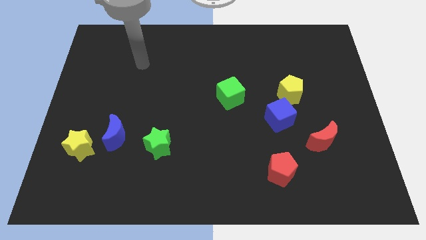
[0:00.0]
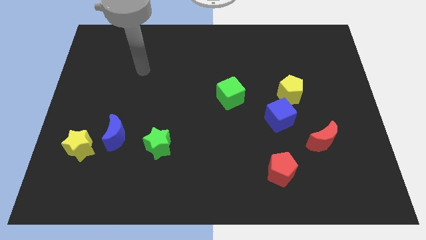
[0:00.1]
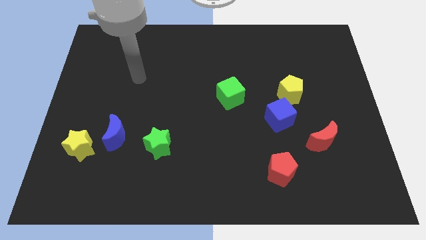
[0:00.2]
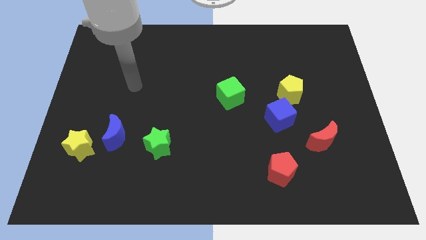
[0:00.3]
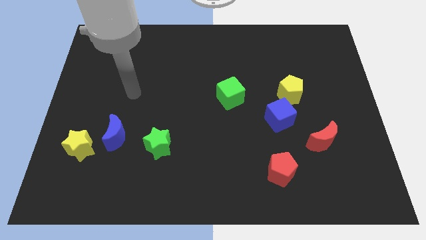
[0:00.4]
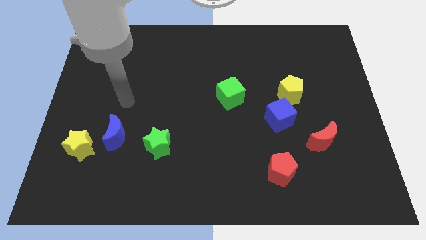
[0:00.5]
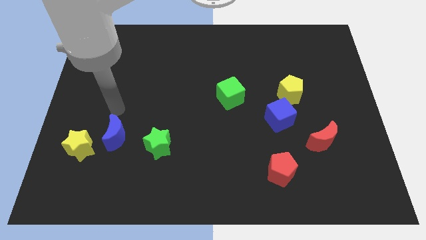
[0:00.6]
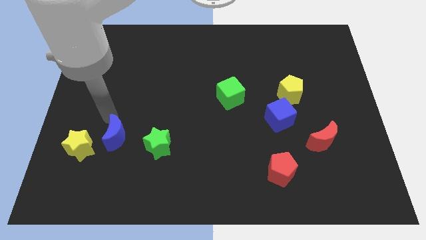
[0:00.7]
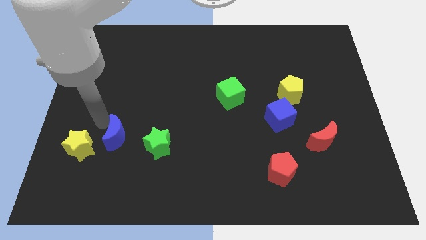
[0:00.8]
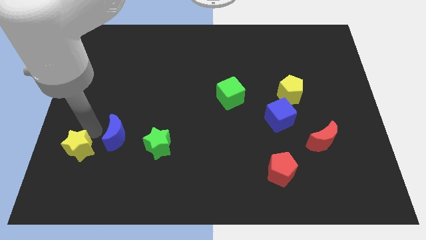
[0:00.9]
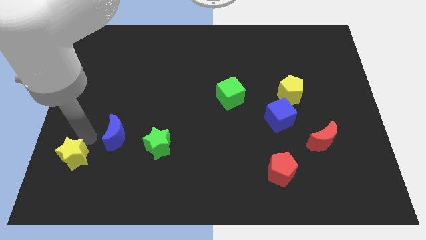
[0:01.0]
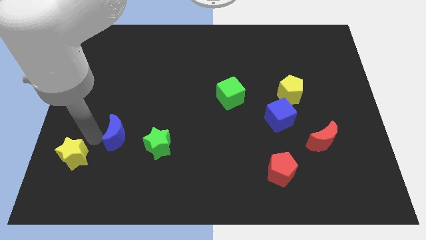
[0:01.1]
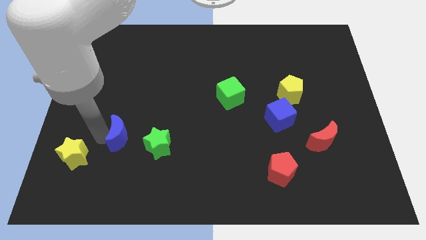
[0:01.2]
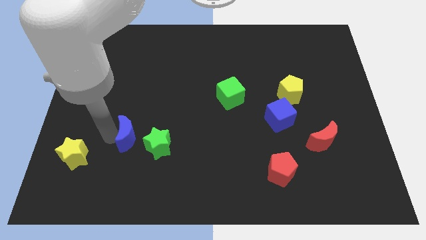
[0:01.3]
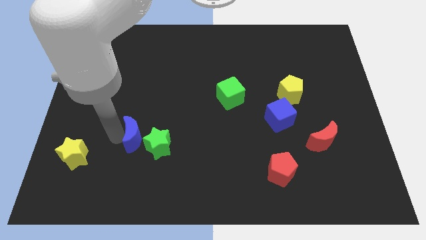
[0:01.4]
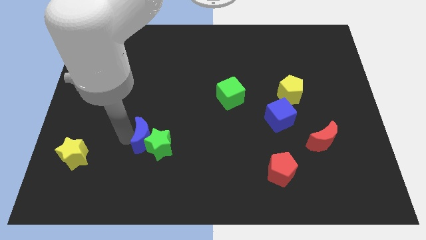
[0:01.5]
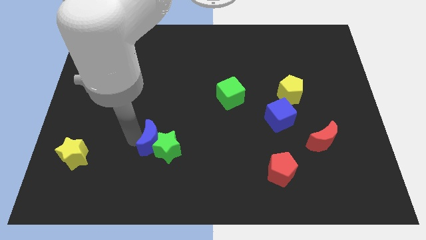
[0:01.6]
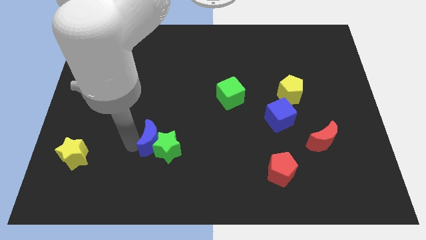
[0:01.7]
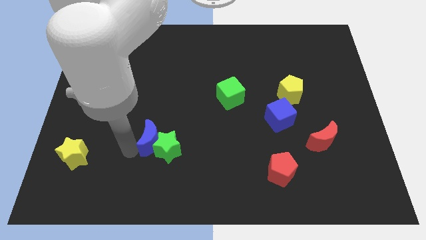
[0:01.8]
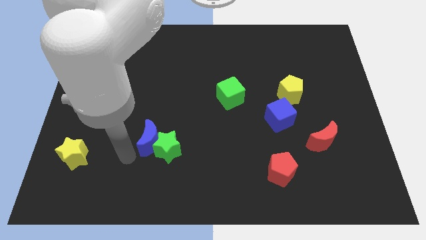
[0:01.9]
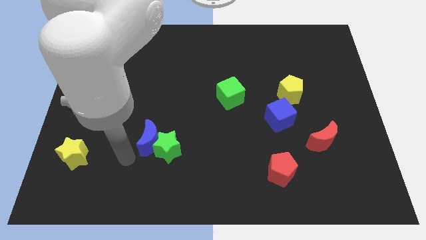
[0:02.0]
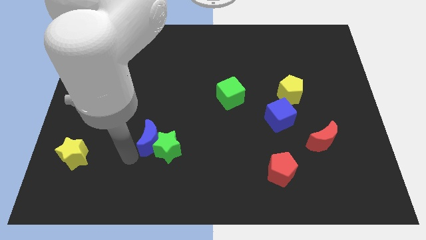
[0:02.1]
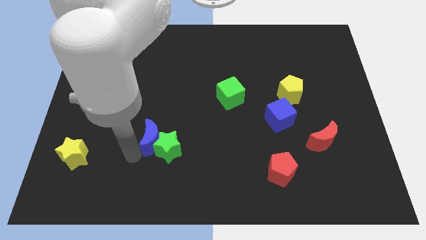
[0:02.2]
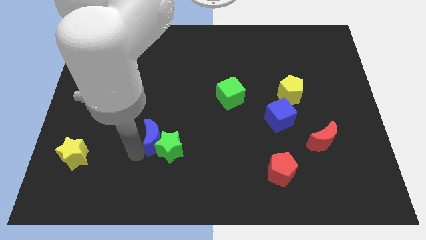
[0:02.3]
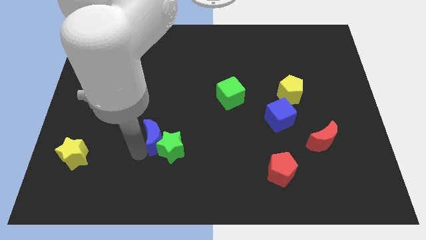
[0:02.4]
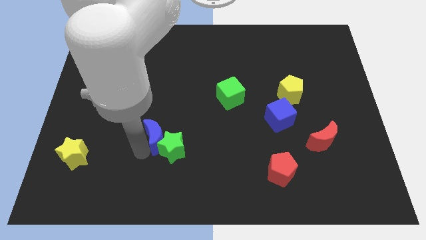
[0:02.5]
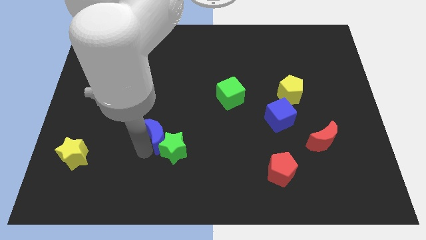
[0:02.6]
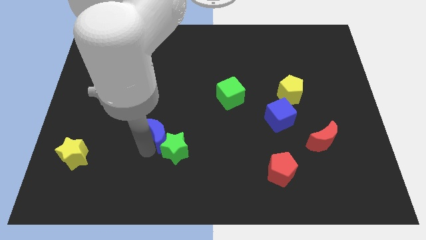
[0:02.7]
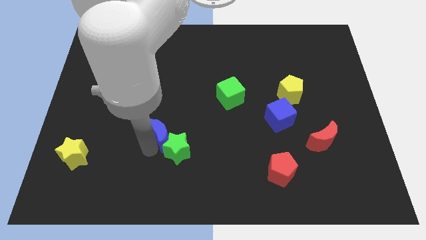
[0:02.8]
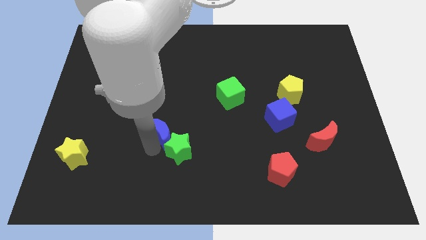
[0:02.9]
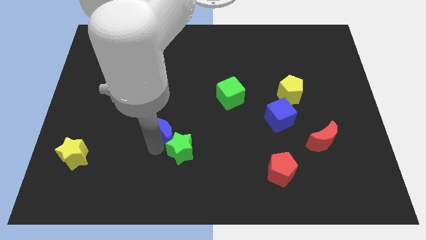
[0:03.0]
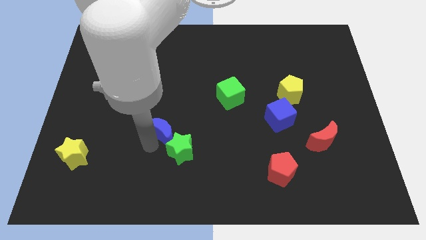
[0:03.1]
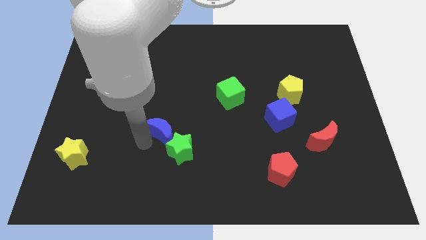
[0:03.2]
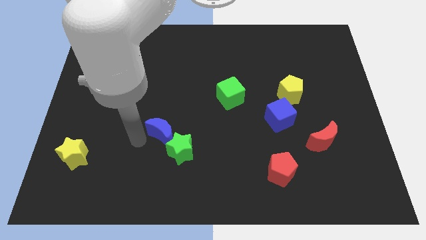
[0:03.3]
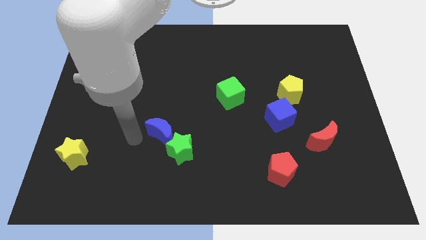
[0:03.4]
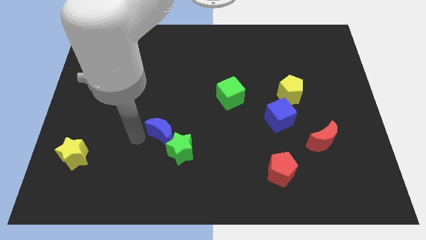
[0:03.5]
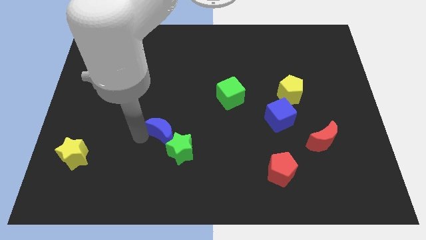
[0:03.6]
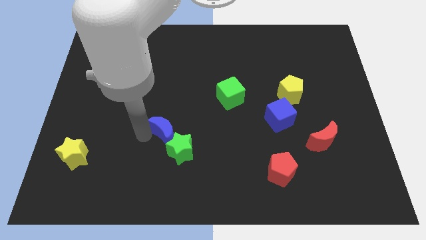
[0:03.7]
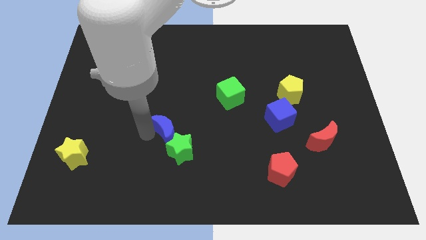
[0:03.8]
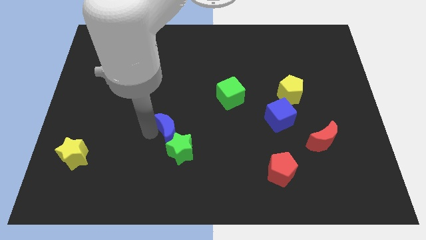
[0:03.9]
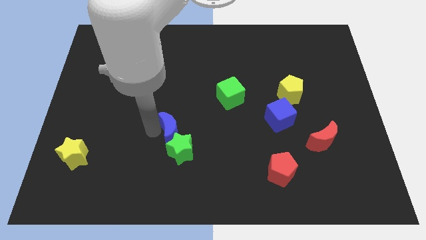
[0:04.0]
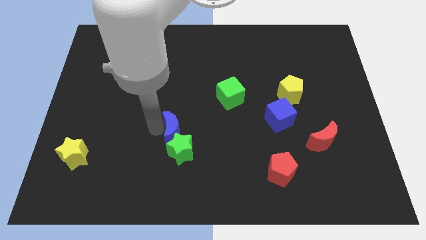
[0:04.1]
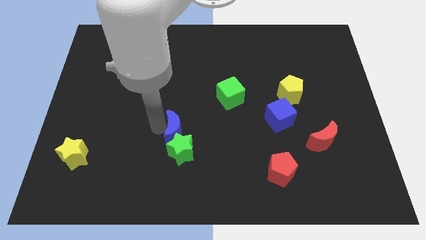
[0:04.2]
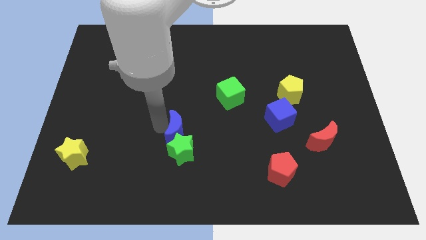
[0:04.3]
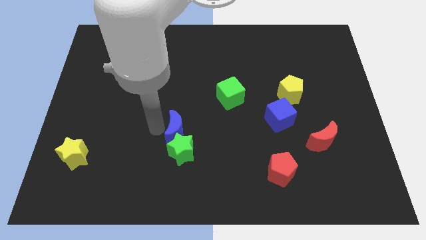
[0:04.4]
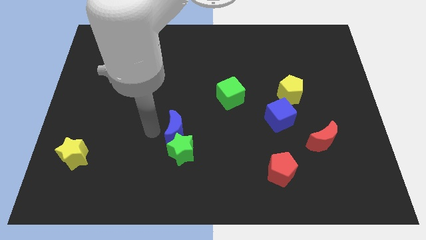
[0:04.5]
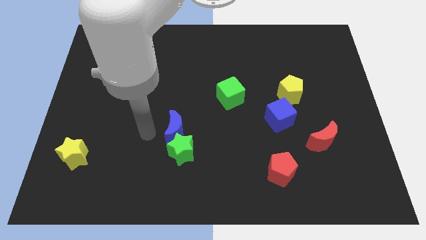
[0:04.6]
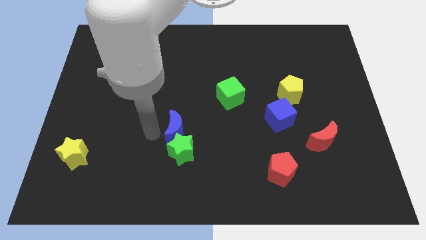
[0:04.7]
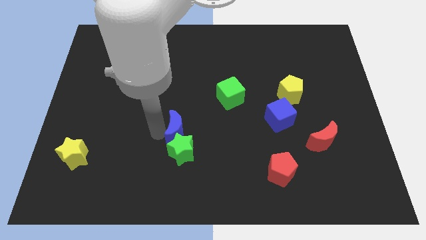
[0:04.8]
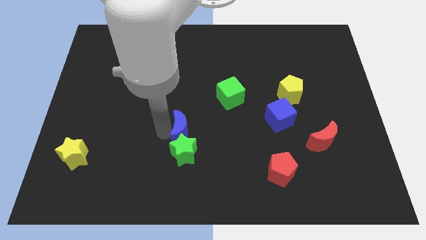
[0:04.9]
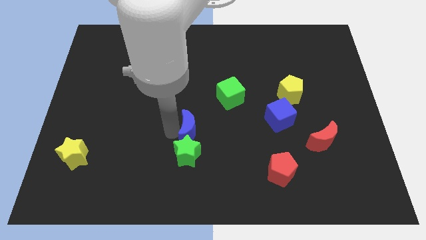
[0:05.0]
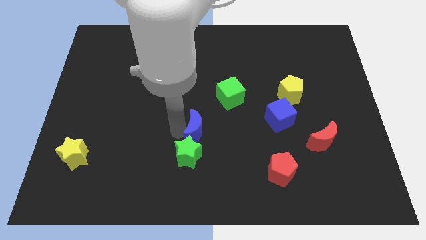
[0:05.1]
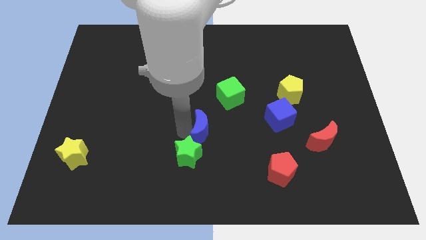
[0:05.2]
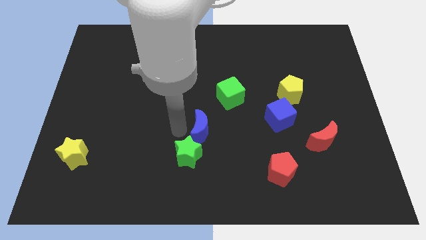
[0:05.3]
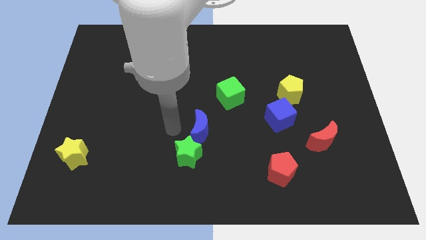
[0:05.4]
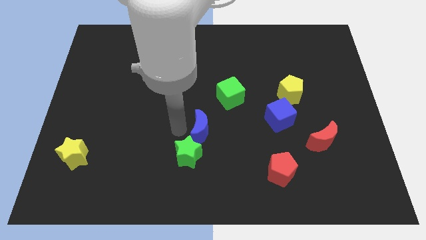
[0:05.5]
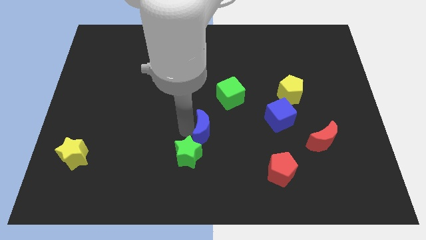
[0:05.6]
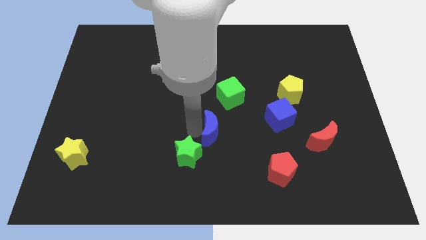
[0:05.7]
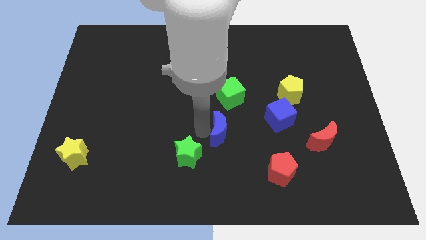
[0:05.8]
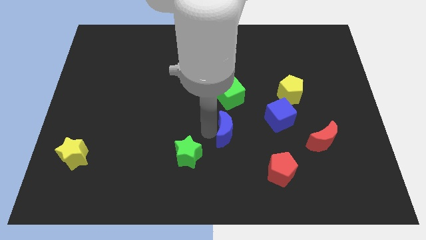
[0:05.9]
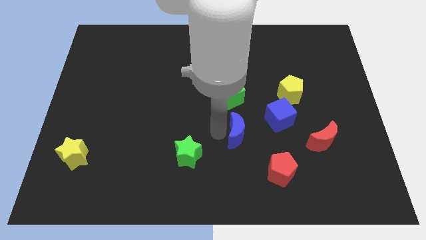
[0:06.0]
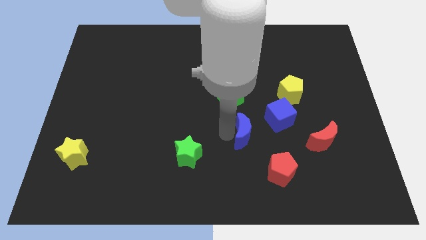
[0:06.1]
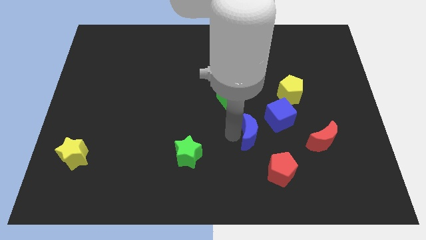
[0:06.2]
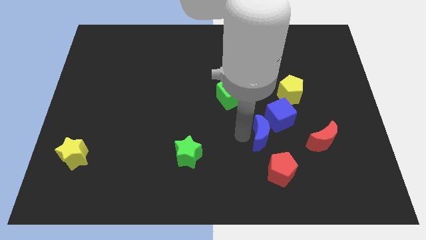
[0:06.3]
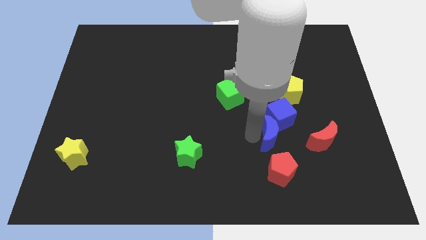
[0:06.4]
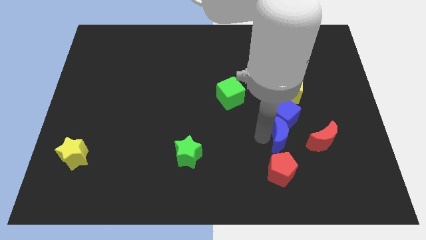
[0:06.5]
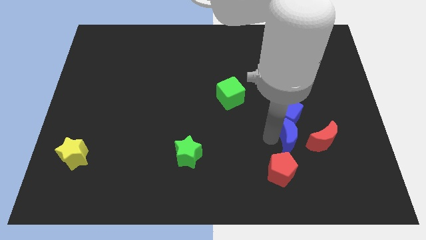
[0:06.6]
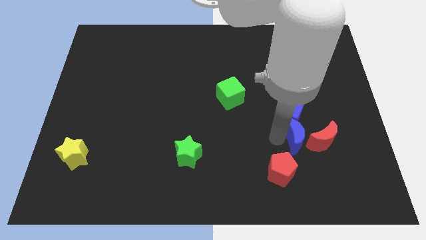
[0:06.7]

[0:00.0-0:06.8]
push the blue moon to the red moon
